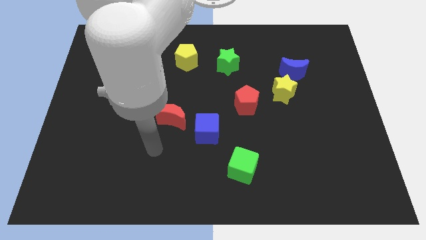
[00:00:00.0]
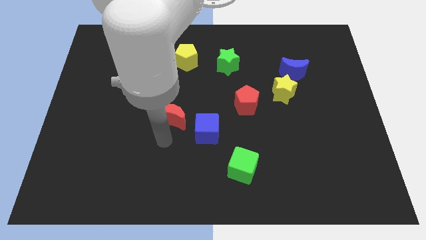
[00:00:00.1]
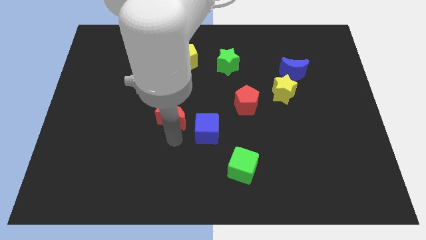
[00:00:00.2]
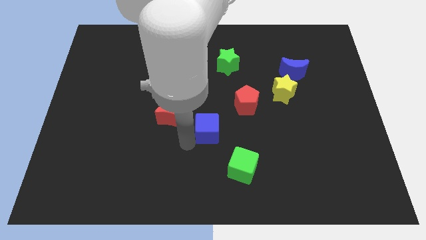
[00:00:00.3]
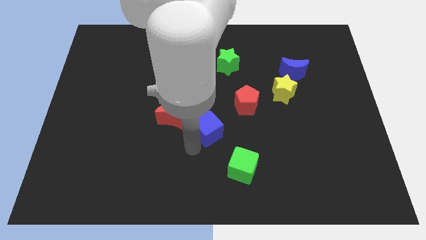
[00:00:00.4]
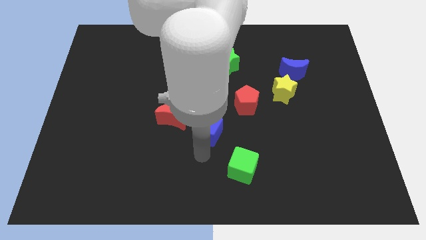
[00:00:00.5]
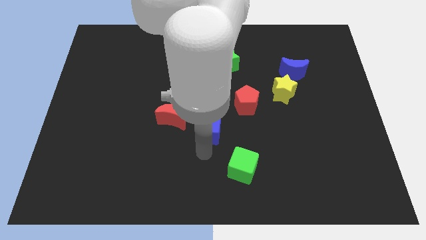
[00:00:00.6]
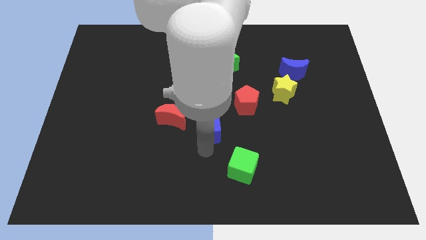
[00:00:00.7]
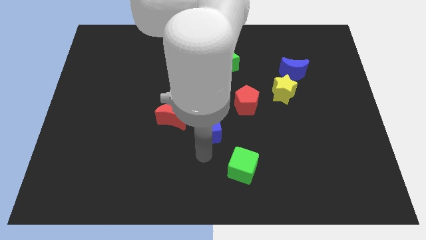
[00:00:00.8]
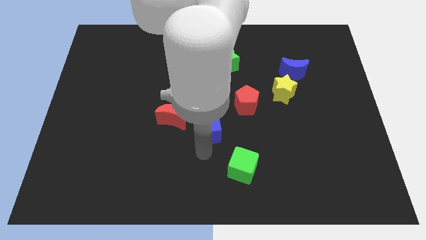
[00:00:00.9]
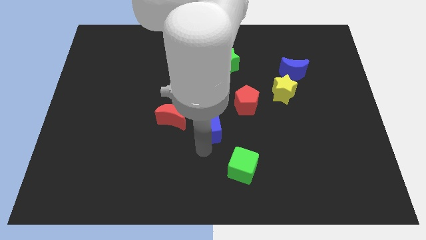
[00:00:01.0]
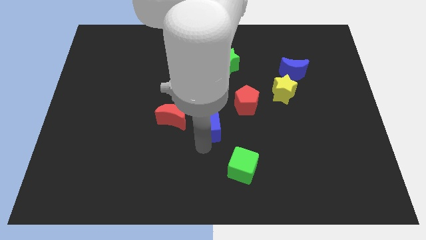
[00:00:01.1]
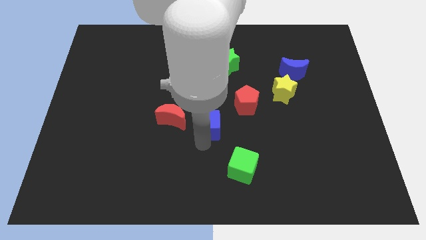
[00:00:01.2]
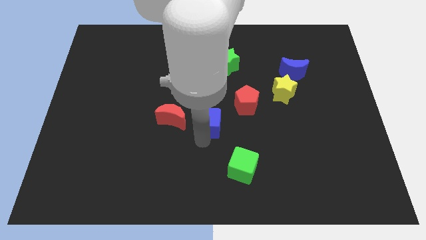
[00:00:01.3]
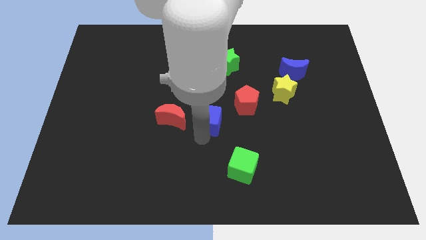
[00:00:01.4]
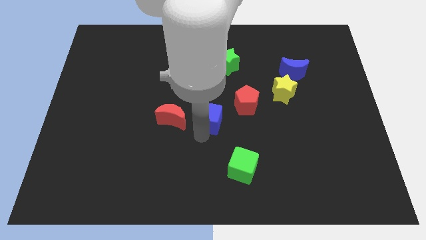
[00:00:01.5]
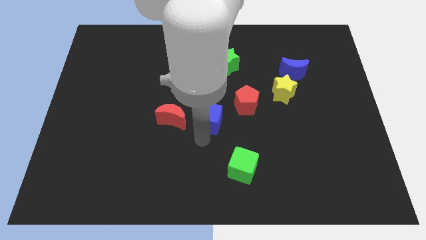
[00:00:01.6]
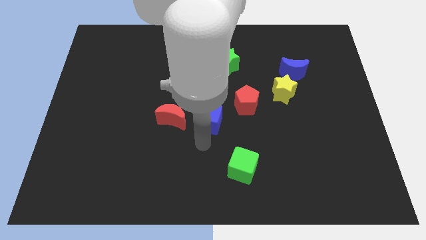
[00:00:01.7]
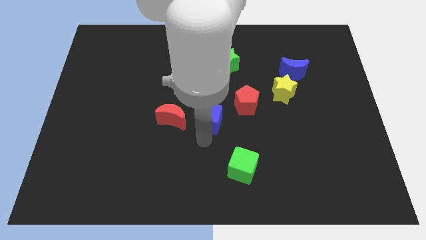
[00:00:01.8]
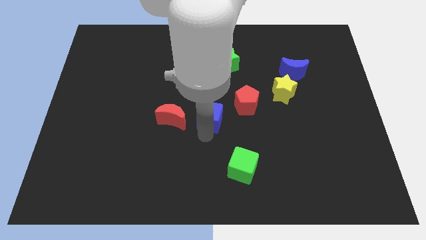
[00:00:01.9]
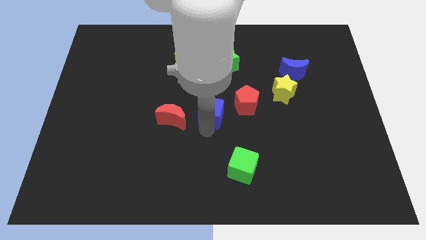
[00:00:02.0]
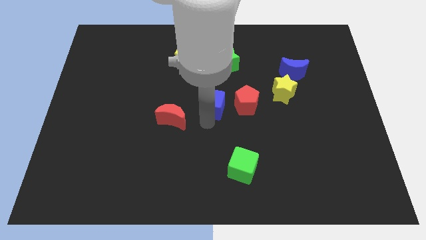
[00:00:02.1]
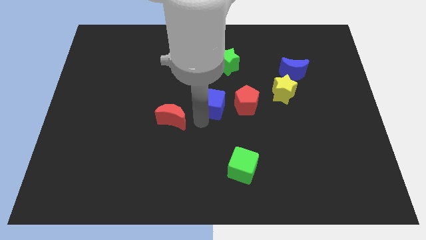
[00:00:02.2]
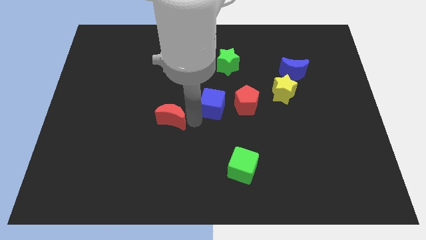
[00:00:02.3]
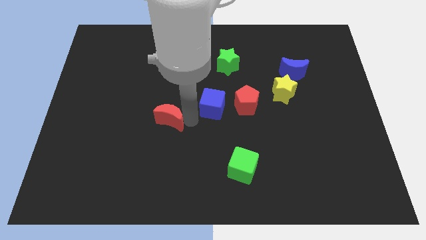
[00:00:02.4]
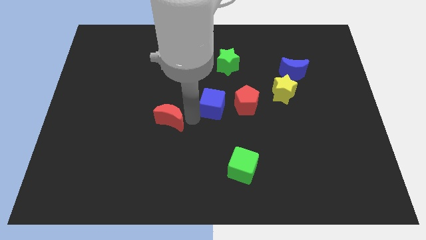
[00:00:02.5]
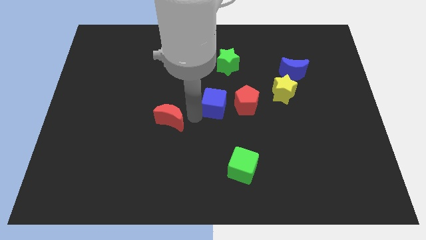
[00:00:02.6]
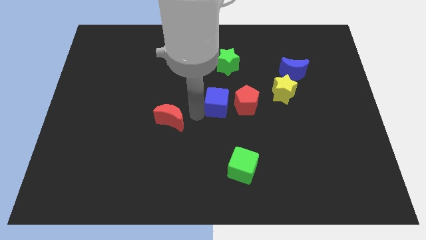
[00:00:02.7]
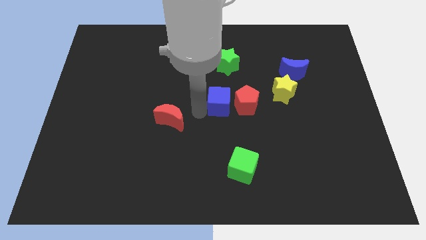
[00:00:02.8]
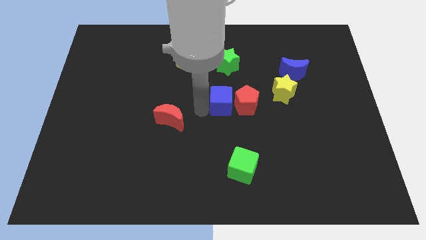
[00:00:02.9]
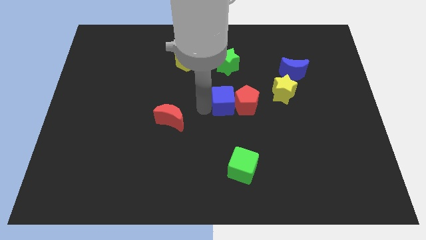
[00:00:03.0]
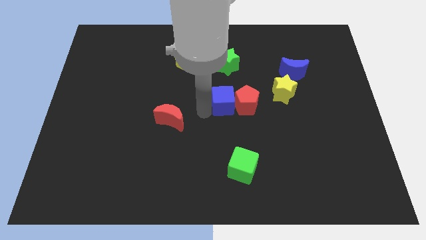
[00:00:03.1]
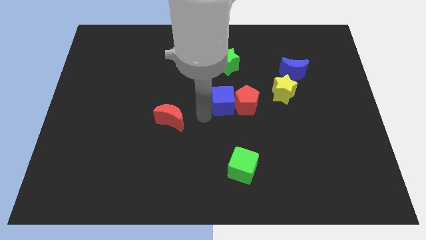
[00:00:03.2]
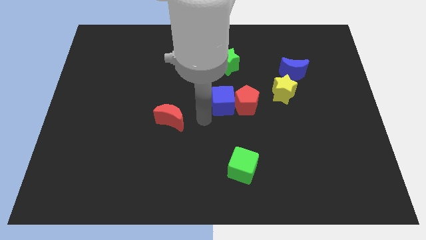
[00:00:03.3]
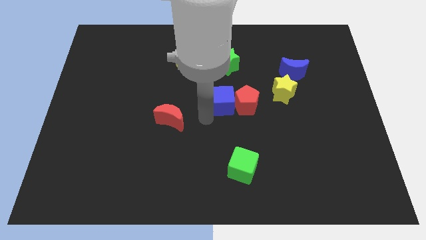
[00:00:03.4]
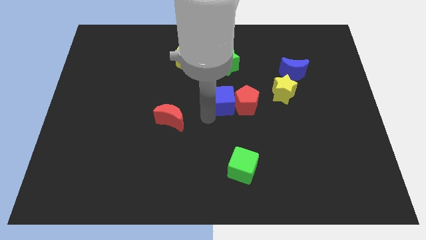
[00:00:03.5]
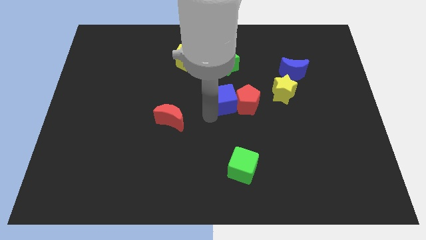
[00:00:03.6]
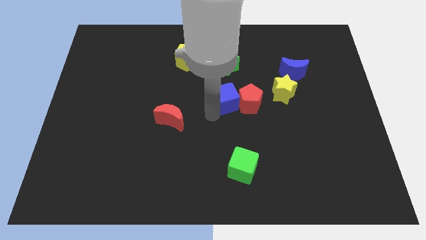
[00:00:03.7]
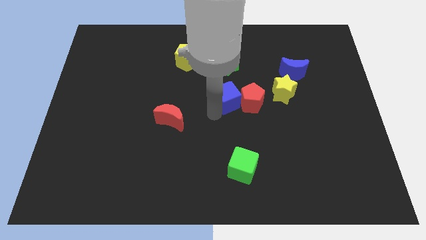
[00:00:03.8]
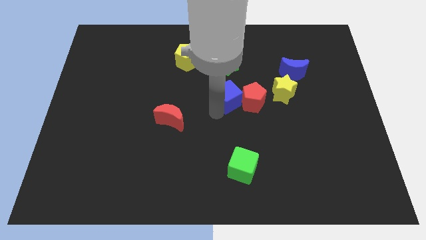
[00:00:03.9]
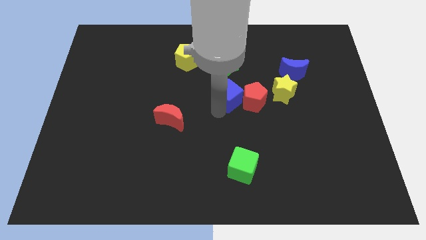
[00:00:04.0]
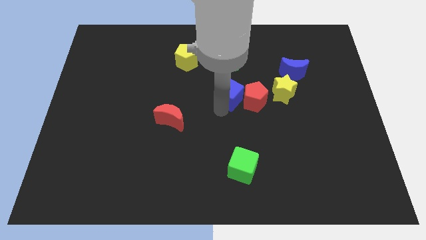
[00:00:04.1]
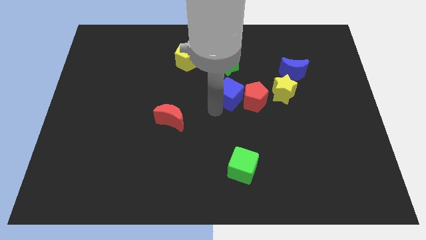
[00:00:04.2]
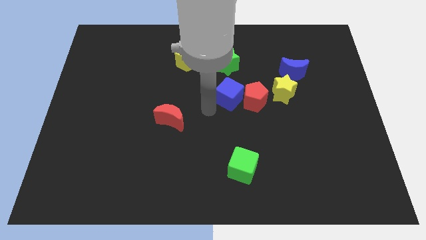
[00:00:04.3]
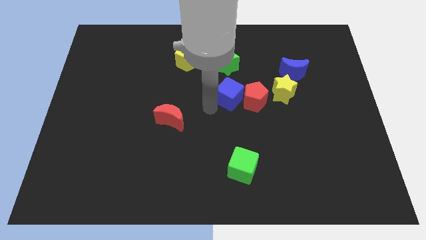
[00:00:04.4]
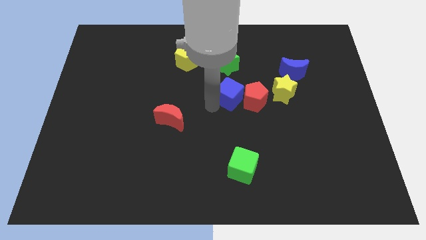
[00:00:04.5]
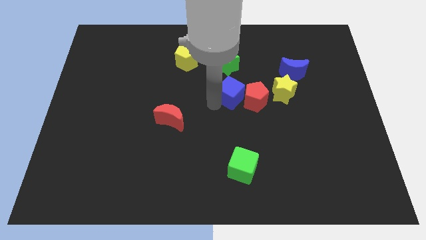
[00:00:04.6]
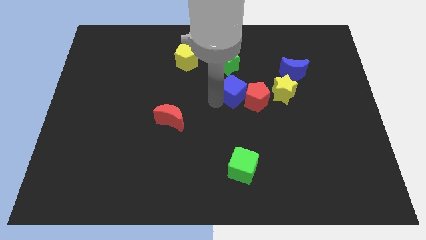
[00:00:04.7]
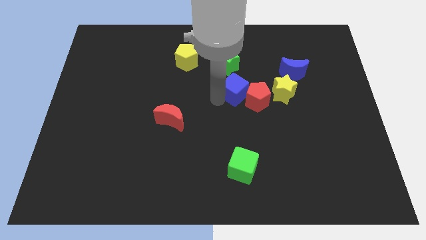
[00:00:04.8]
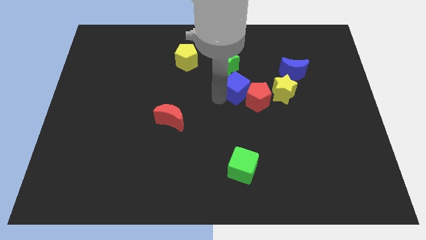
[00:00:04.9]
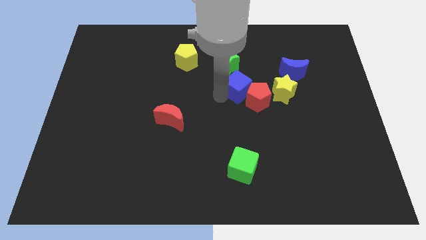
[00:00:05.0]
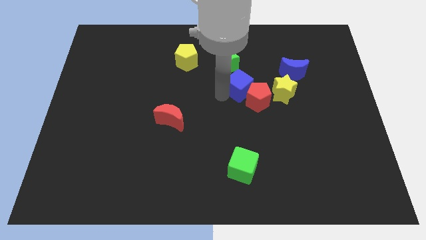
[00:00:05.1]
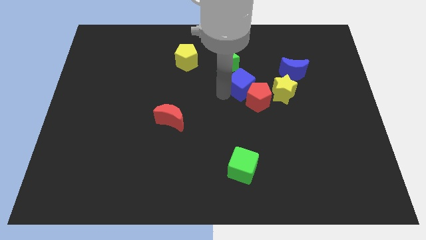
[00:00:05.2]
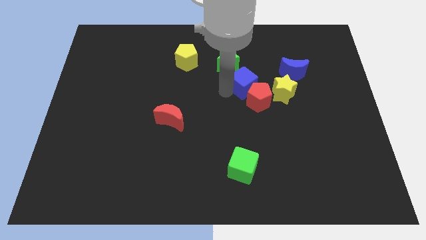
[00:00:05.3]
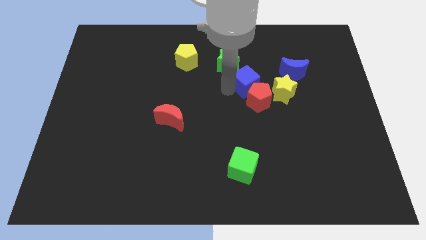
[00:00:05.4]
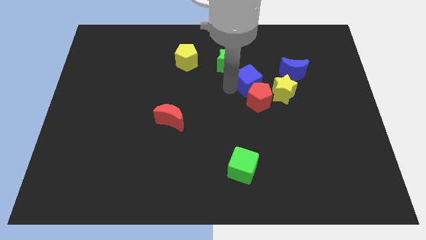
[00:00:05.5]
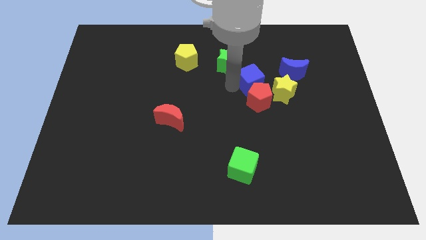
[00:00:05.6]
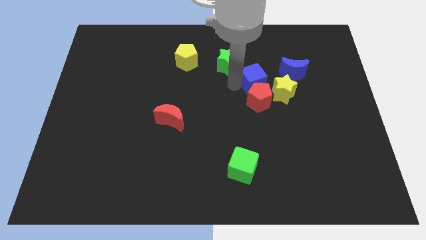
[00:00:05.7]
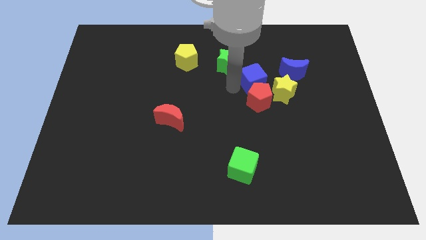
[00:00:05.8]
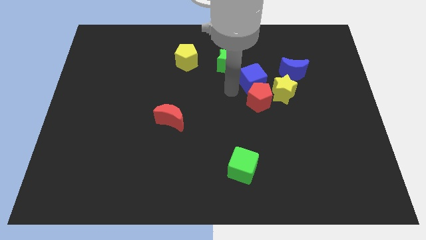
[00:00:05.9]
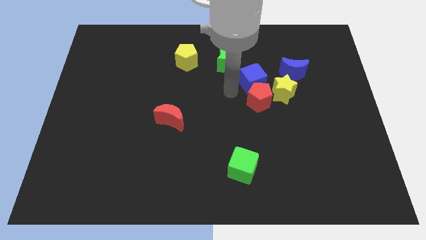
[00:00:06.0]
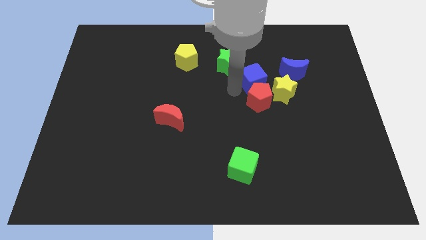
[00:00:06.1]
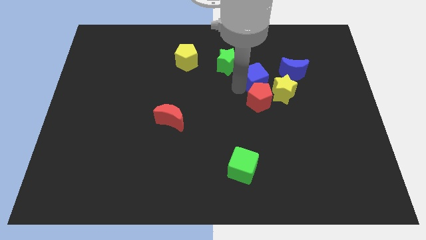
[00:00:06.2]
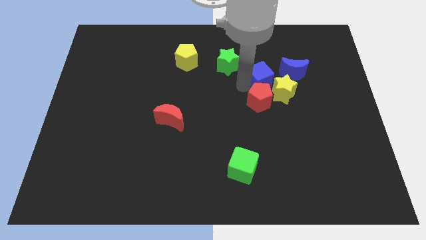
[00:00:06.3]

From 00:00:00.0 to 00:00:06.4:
move the blue cube diagonally upwards and to the right

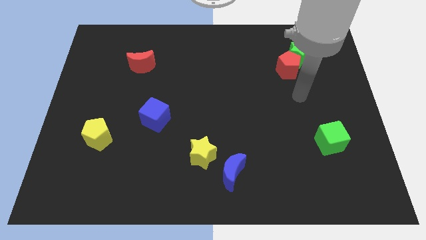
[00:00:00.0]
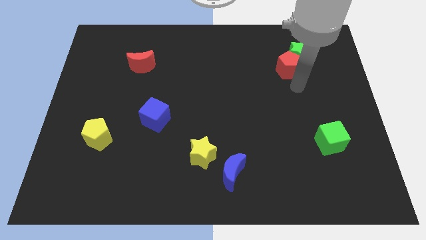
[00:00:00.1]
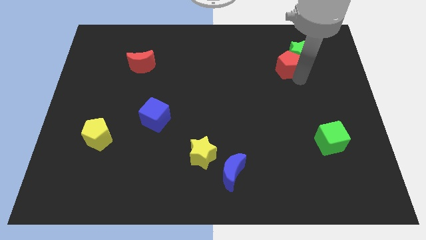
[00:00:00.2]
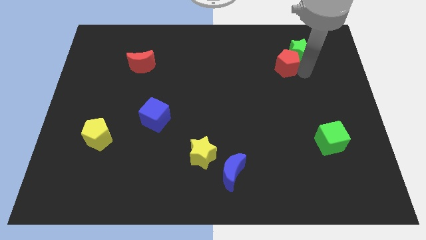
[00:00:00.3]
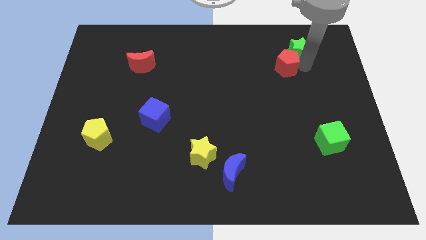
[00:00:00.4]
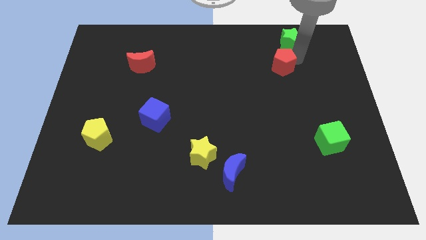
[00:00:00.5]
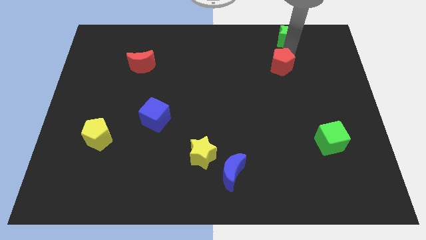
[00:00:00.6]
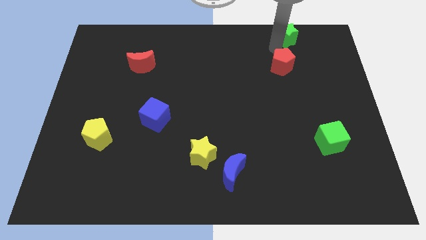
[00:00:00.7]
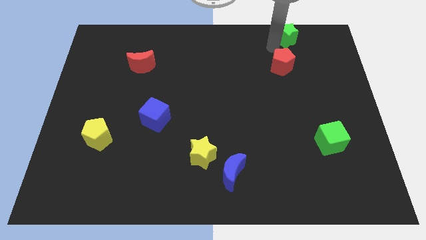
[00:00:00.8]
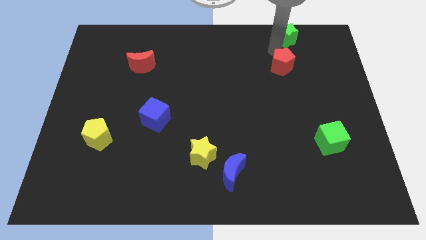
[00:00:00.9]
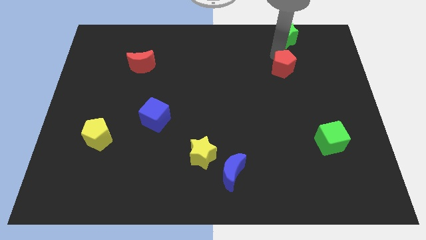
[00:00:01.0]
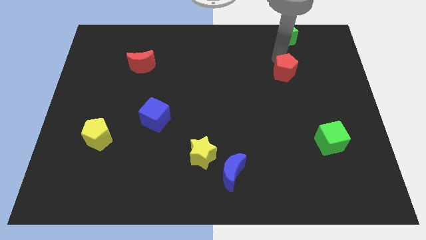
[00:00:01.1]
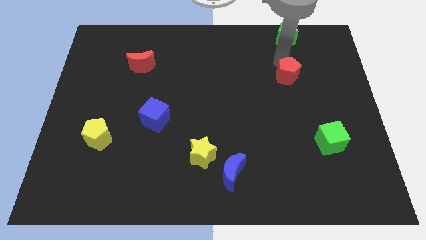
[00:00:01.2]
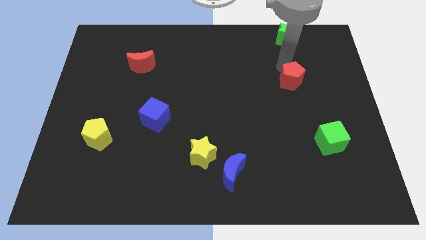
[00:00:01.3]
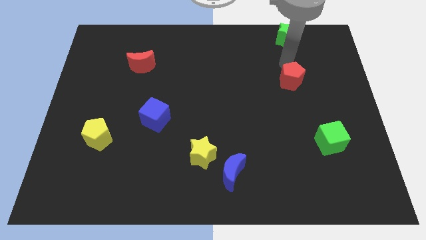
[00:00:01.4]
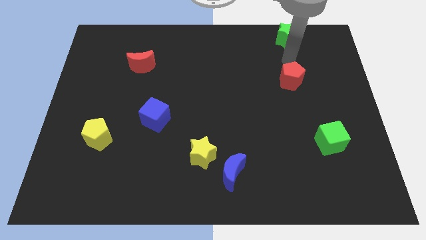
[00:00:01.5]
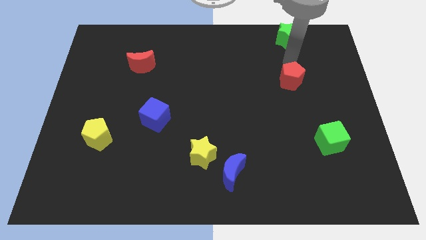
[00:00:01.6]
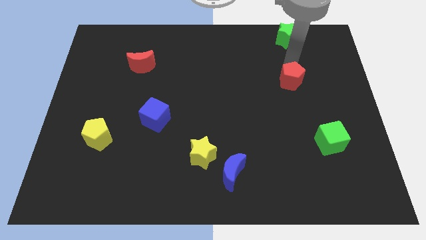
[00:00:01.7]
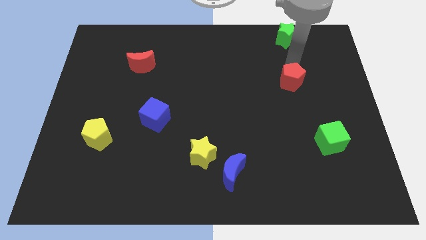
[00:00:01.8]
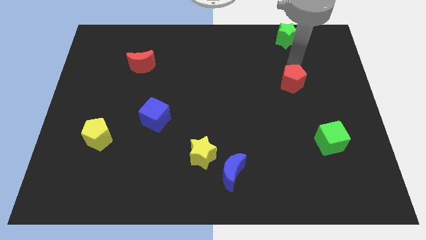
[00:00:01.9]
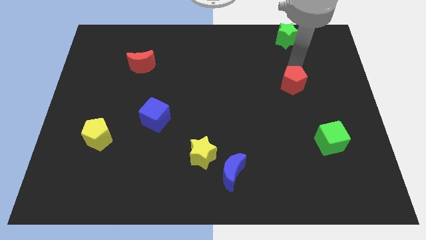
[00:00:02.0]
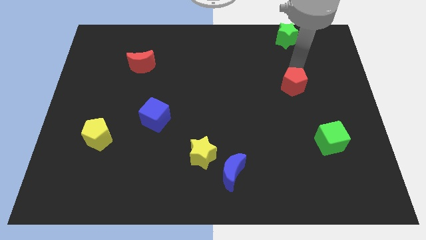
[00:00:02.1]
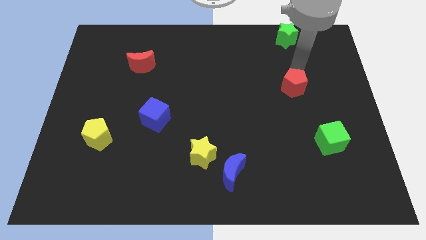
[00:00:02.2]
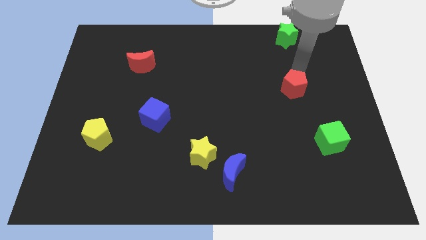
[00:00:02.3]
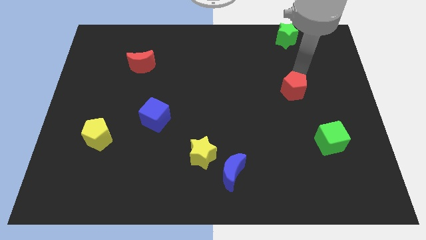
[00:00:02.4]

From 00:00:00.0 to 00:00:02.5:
slide the red pentagon a little down
